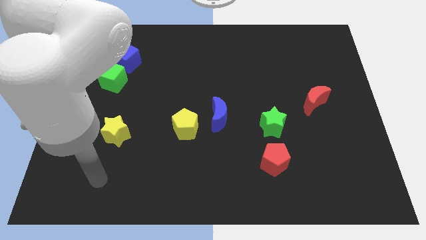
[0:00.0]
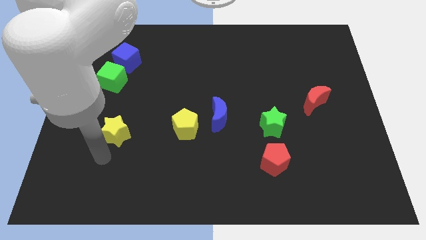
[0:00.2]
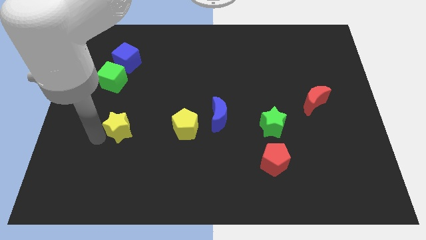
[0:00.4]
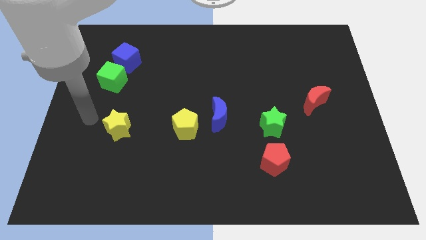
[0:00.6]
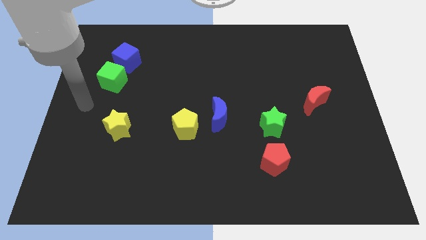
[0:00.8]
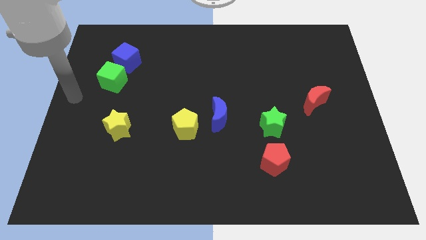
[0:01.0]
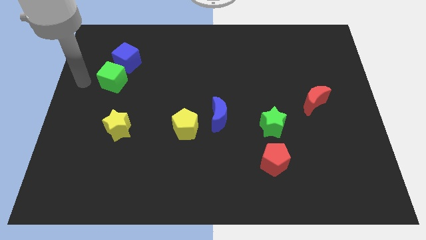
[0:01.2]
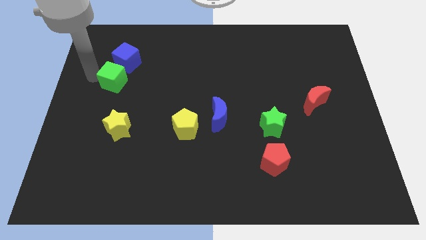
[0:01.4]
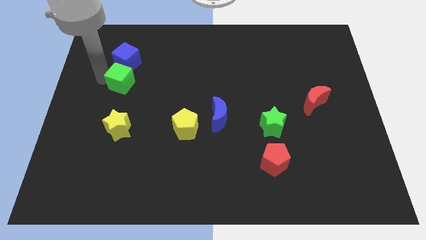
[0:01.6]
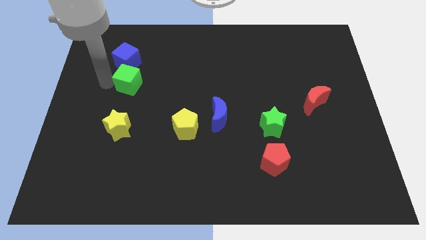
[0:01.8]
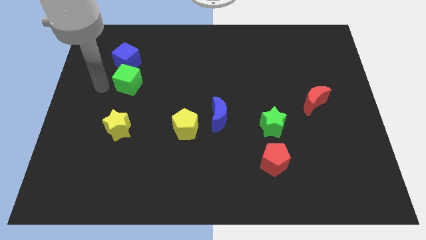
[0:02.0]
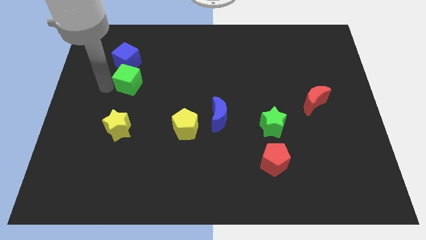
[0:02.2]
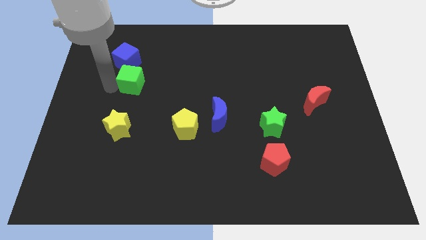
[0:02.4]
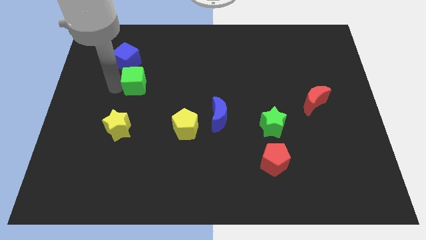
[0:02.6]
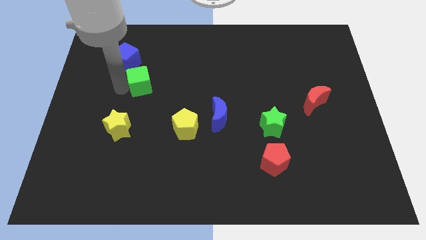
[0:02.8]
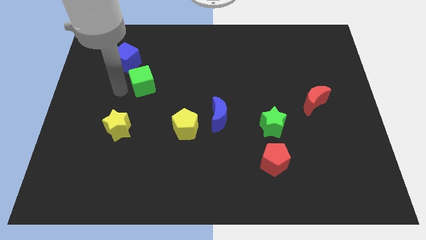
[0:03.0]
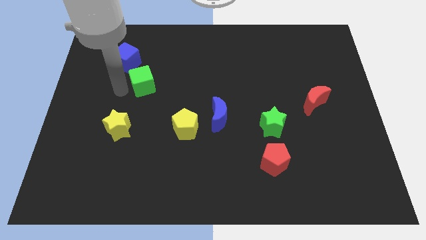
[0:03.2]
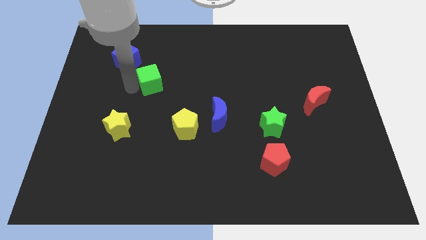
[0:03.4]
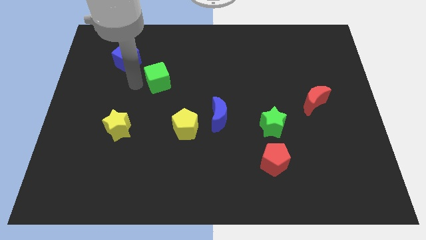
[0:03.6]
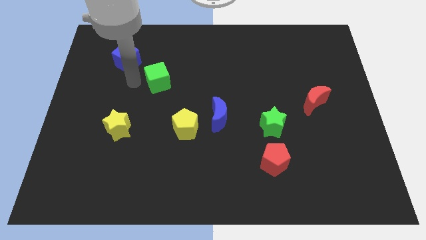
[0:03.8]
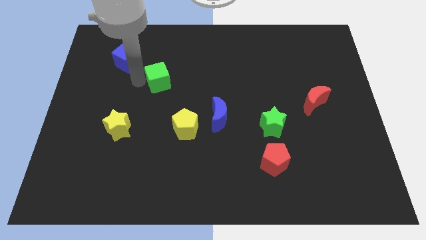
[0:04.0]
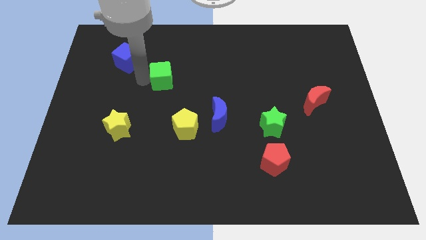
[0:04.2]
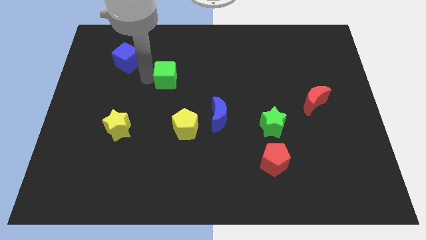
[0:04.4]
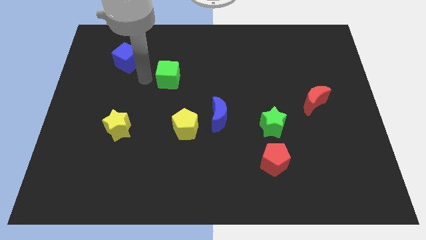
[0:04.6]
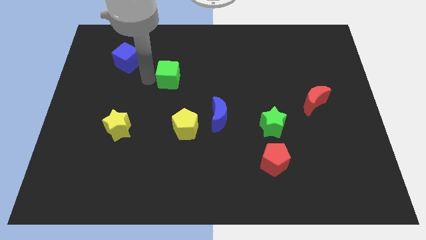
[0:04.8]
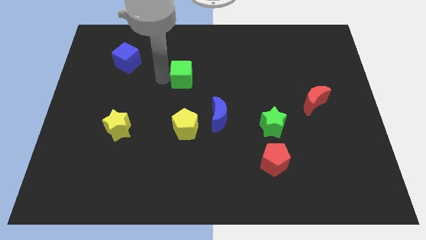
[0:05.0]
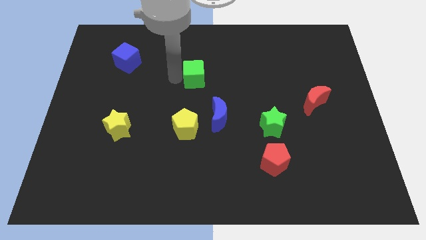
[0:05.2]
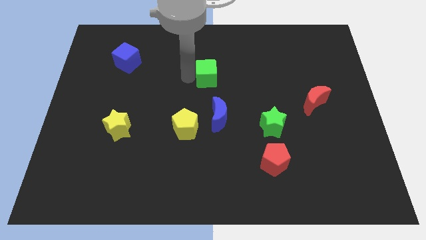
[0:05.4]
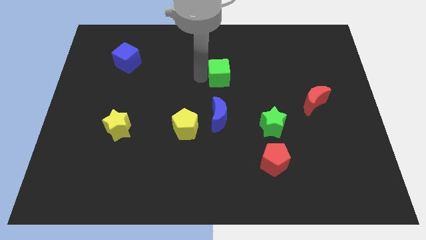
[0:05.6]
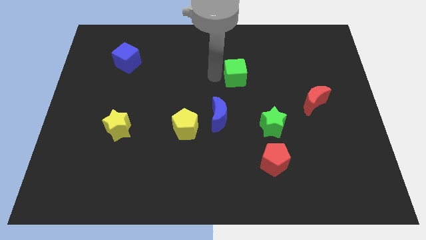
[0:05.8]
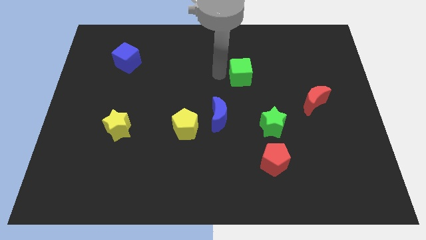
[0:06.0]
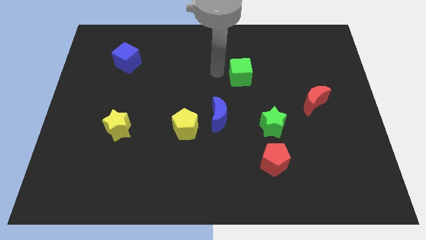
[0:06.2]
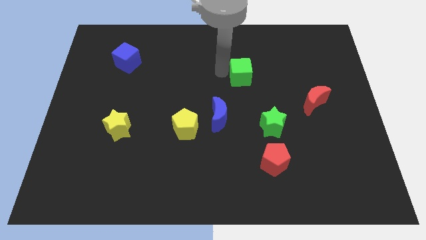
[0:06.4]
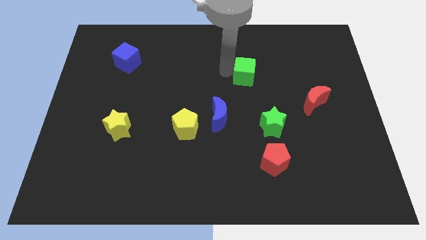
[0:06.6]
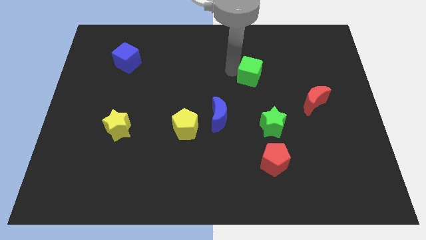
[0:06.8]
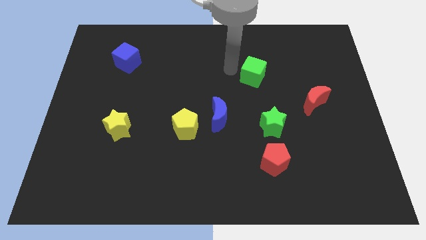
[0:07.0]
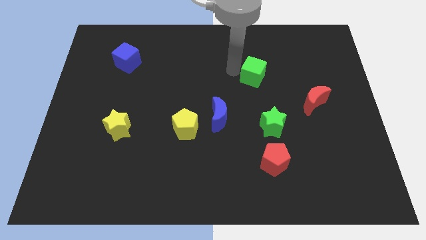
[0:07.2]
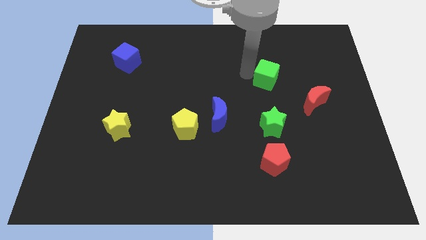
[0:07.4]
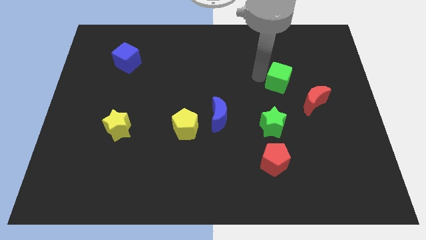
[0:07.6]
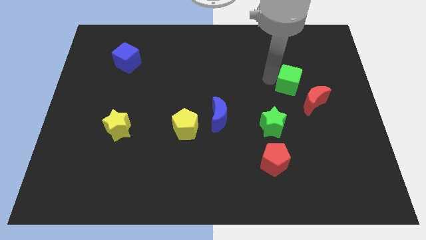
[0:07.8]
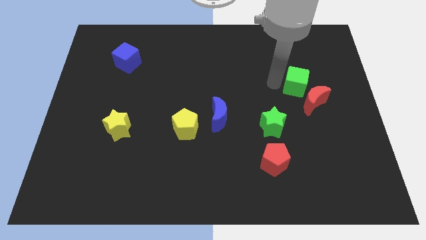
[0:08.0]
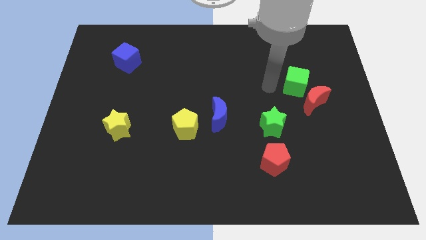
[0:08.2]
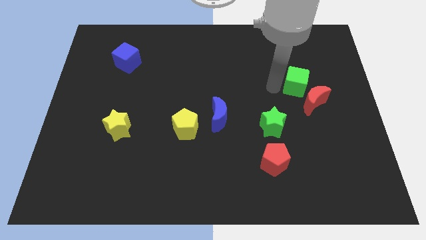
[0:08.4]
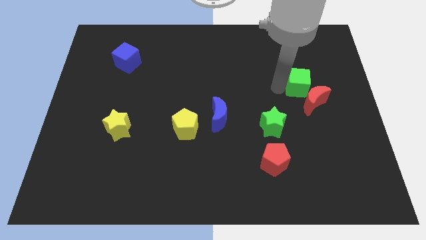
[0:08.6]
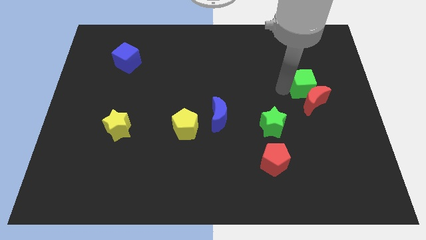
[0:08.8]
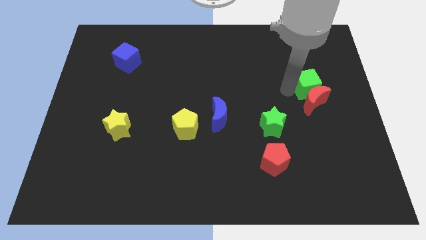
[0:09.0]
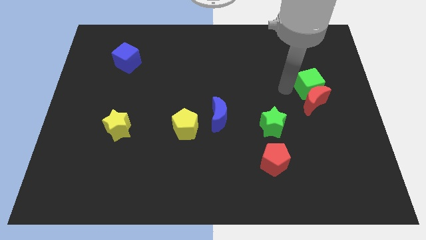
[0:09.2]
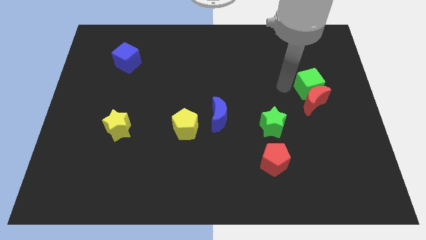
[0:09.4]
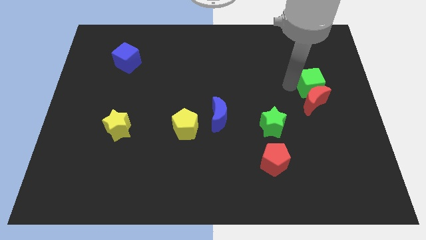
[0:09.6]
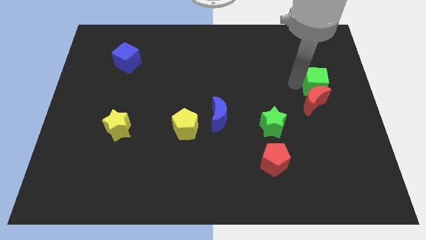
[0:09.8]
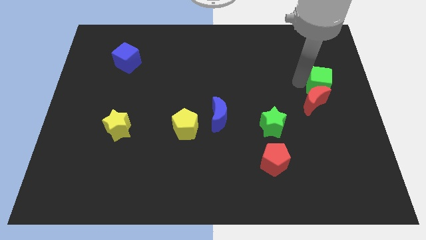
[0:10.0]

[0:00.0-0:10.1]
put the green cube to the right side

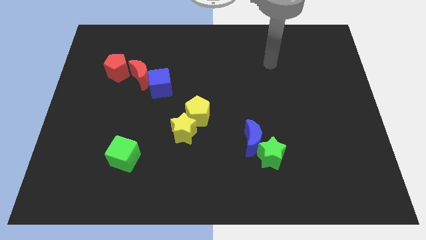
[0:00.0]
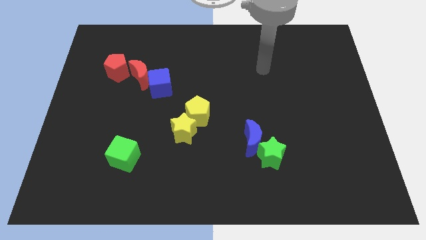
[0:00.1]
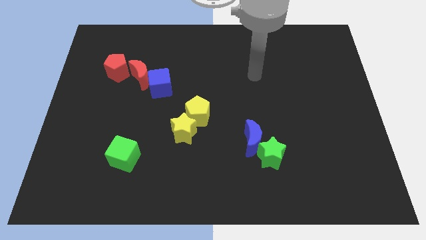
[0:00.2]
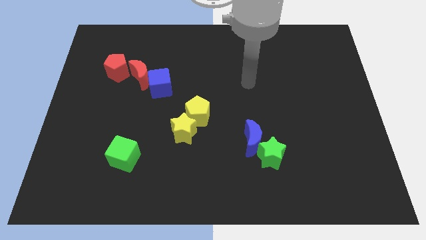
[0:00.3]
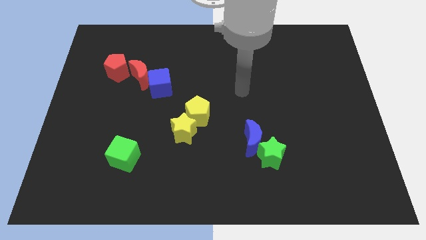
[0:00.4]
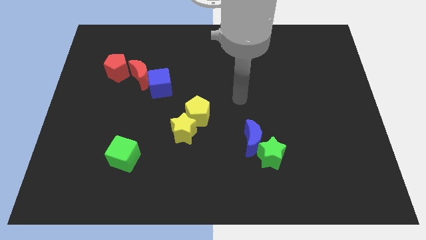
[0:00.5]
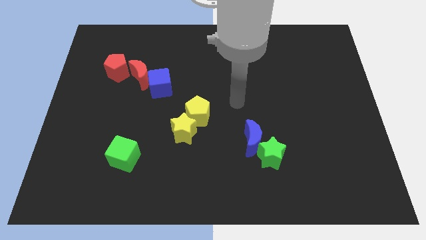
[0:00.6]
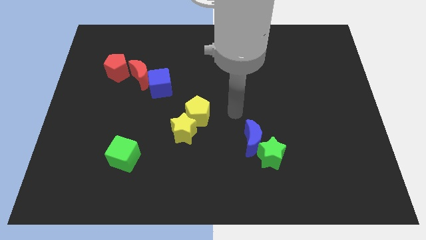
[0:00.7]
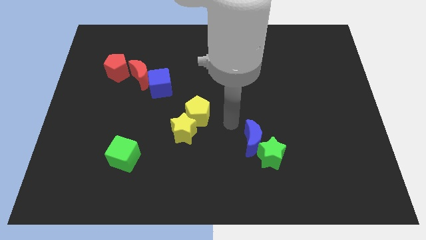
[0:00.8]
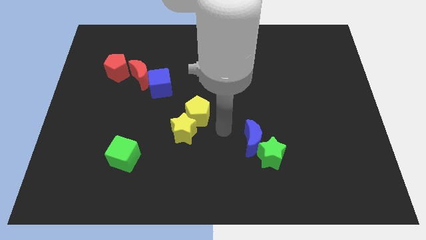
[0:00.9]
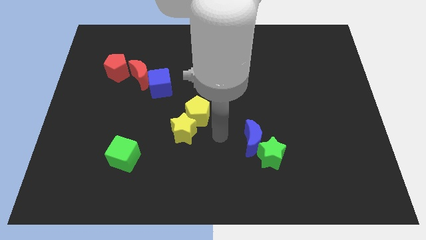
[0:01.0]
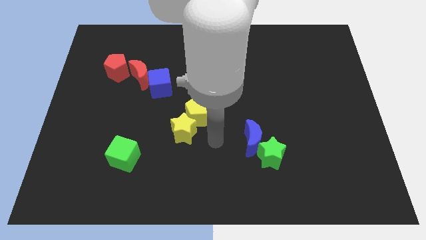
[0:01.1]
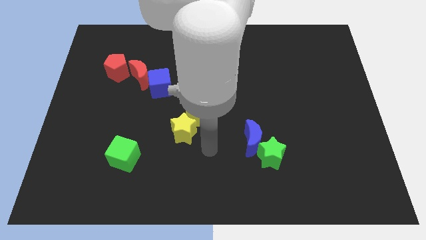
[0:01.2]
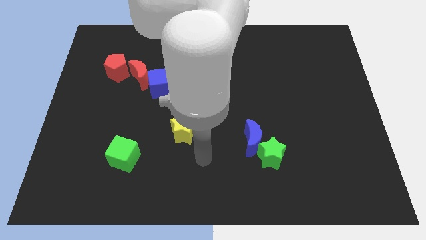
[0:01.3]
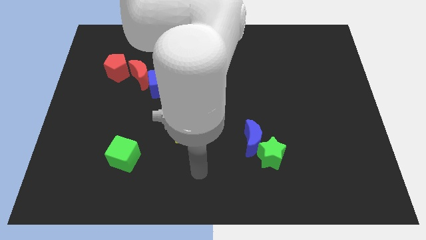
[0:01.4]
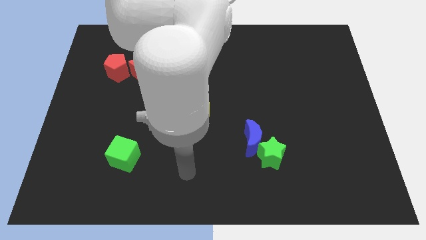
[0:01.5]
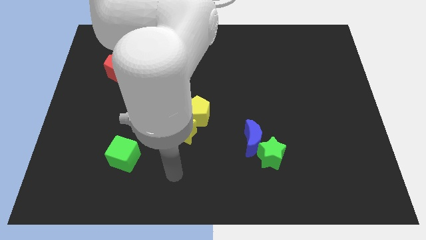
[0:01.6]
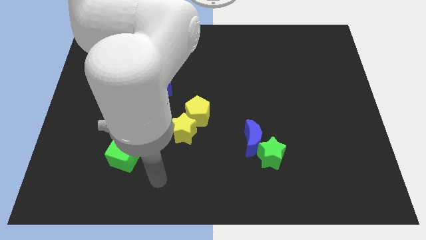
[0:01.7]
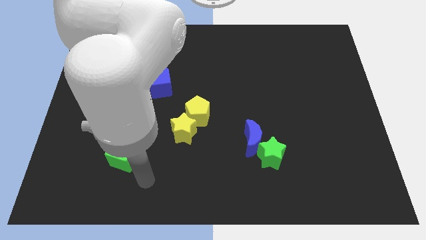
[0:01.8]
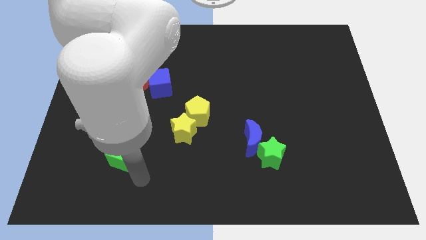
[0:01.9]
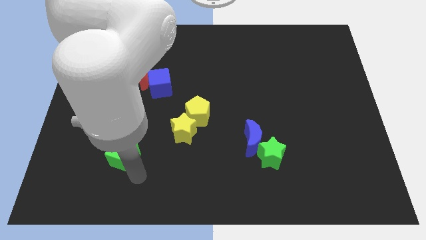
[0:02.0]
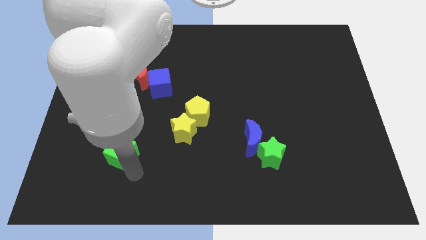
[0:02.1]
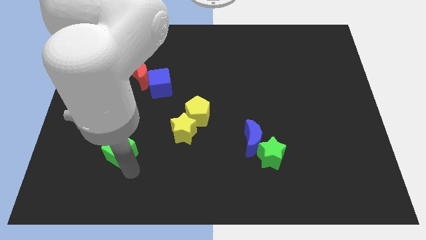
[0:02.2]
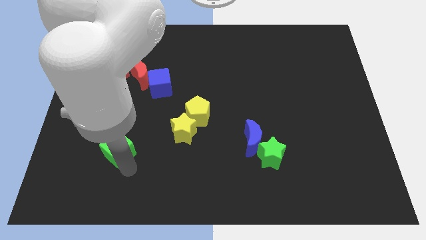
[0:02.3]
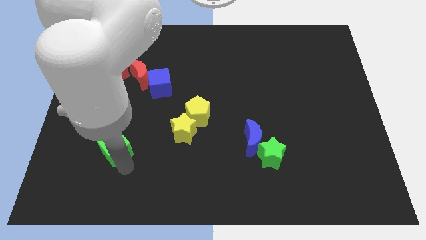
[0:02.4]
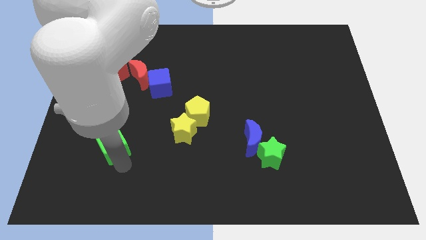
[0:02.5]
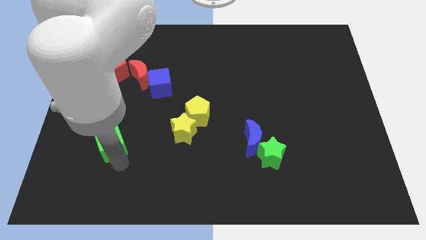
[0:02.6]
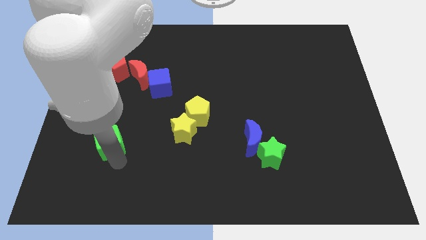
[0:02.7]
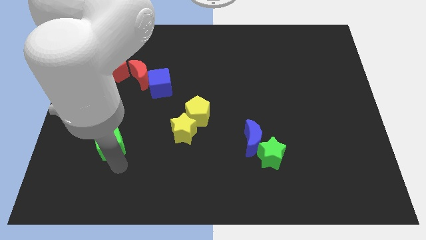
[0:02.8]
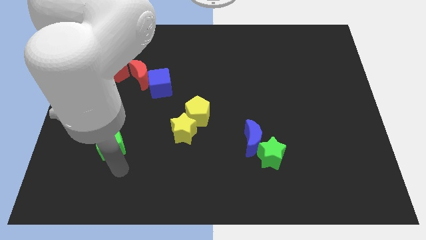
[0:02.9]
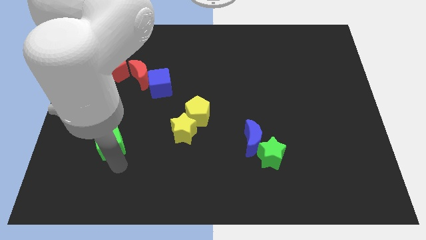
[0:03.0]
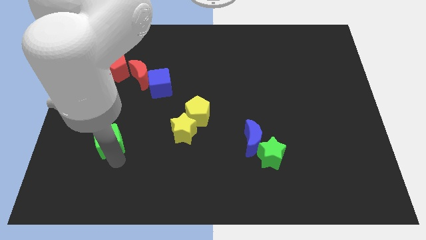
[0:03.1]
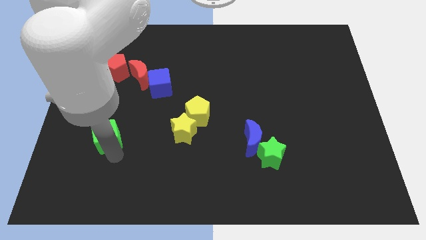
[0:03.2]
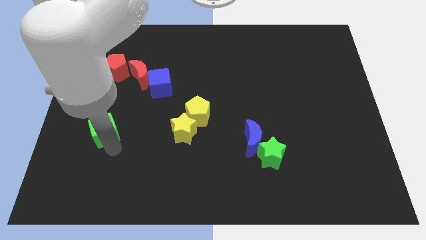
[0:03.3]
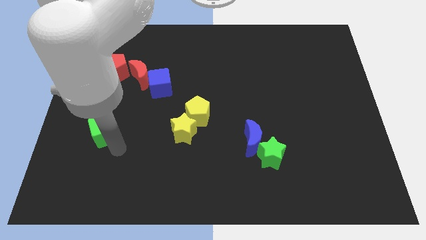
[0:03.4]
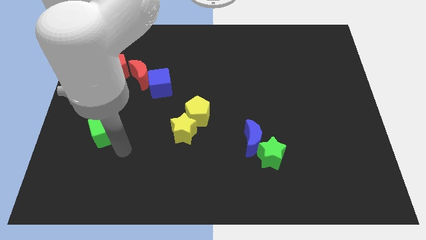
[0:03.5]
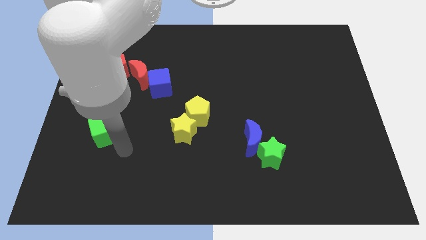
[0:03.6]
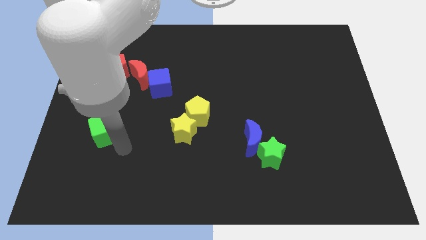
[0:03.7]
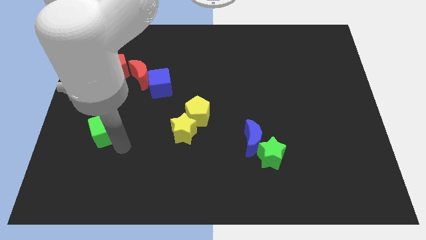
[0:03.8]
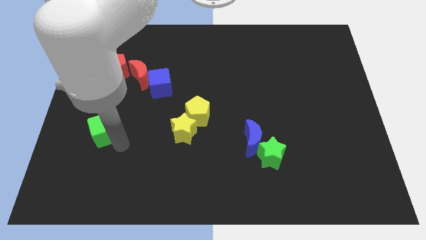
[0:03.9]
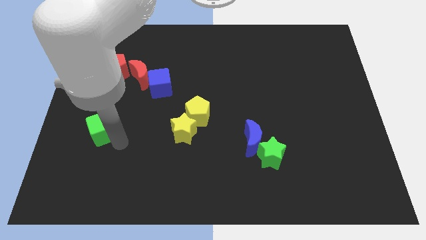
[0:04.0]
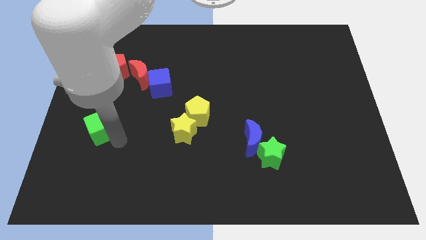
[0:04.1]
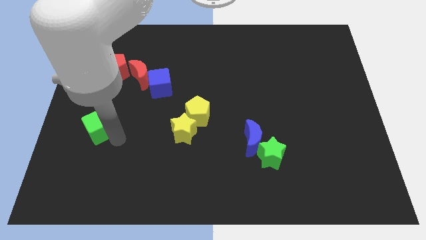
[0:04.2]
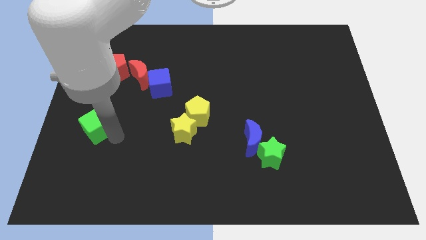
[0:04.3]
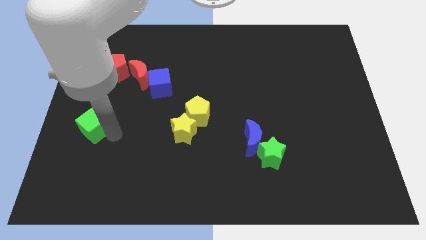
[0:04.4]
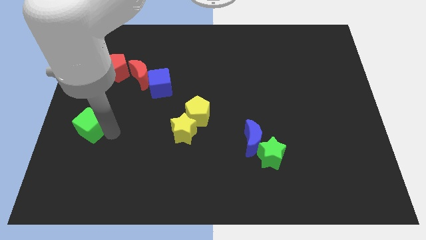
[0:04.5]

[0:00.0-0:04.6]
slide the green cube to the left side
